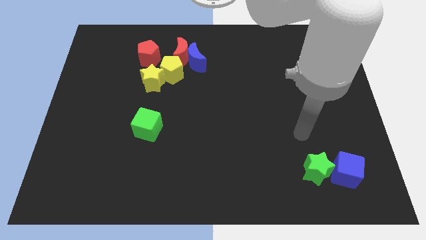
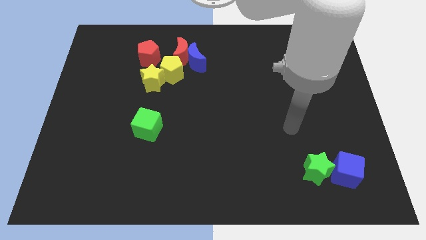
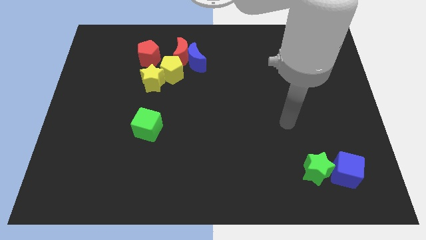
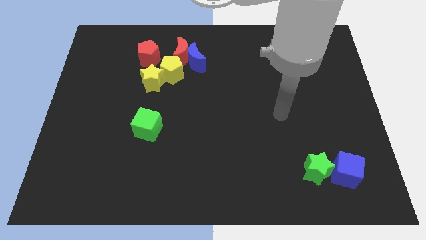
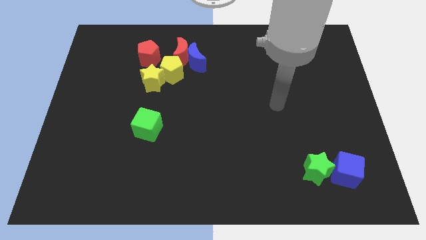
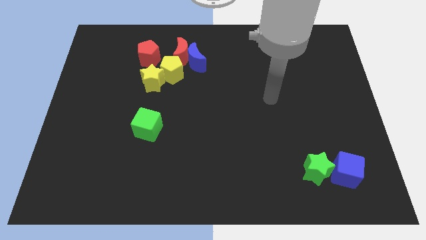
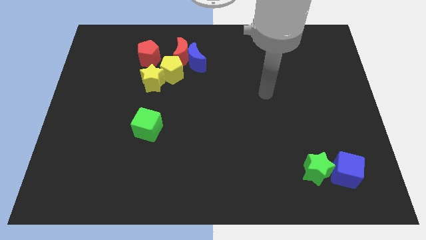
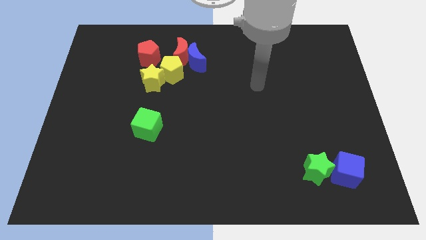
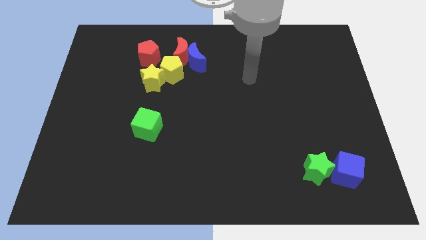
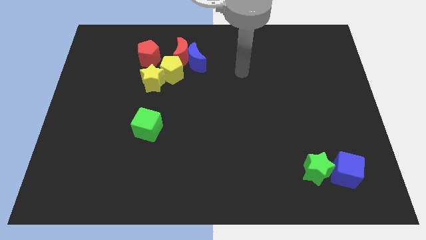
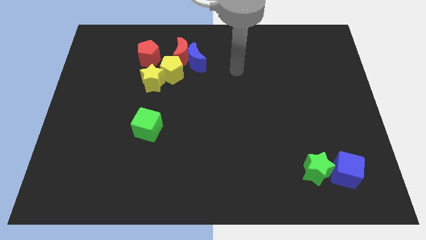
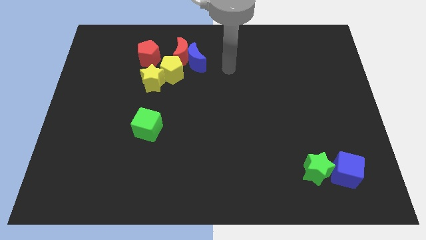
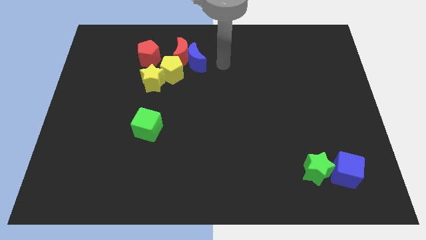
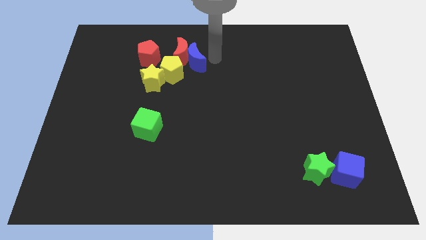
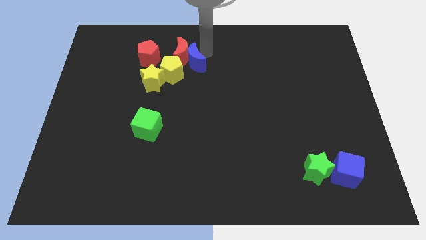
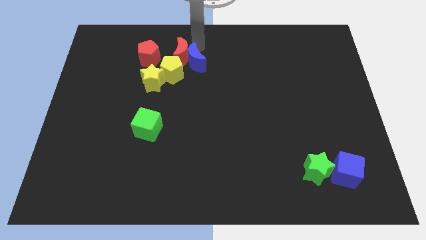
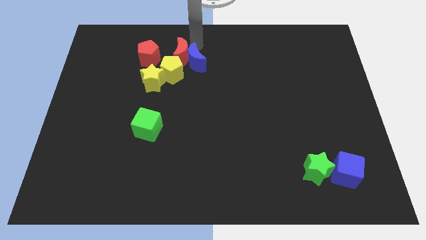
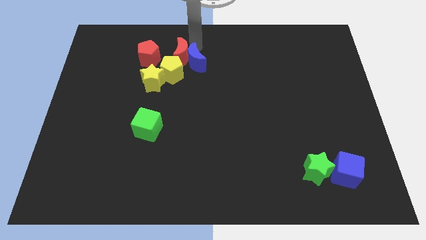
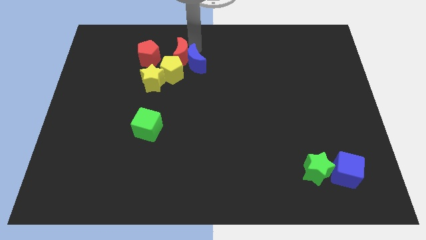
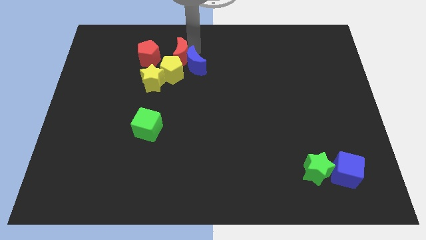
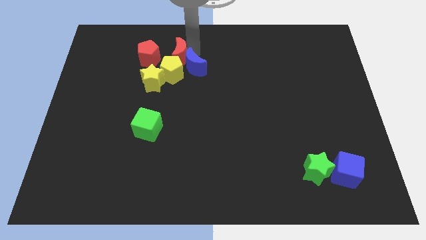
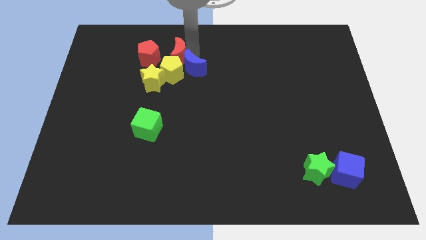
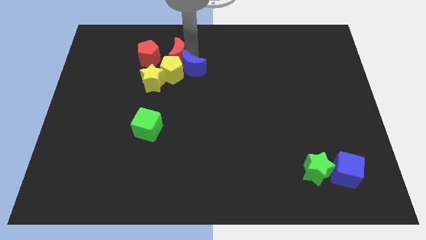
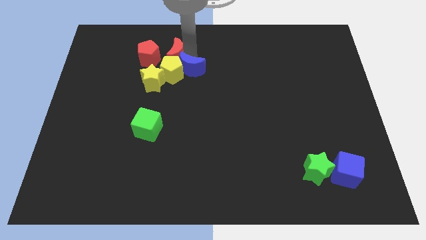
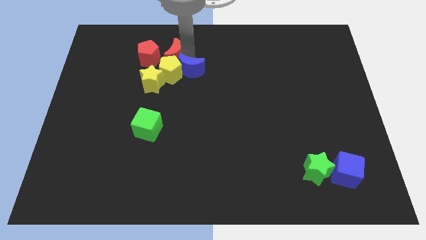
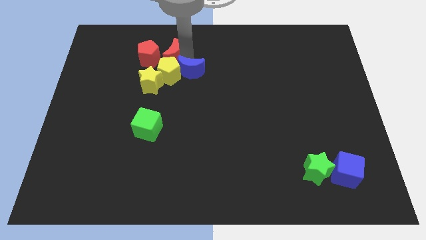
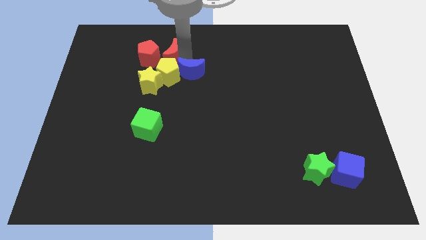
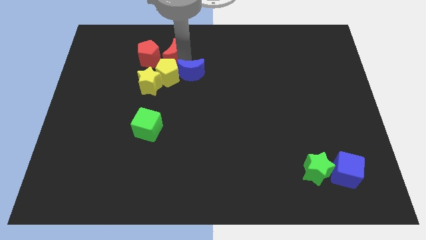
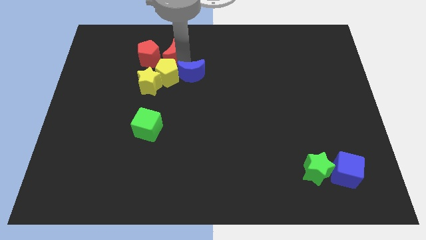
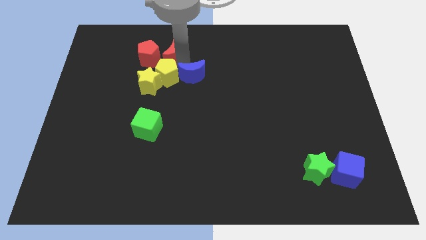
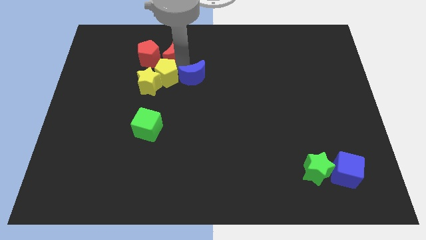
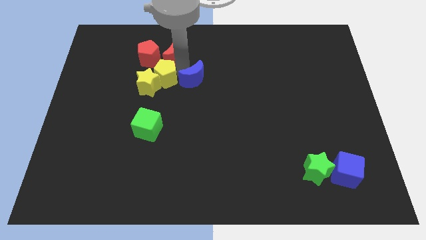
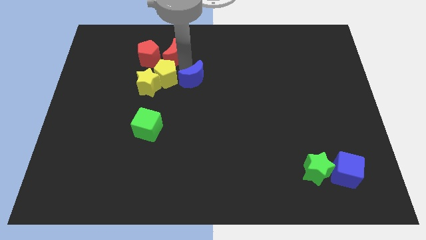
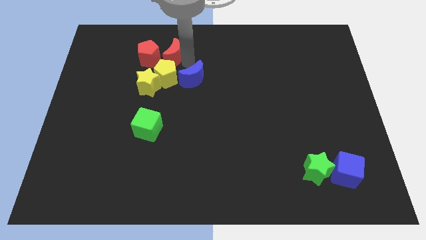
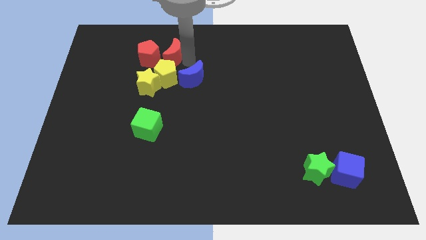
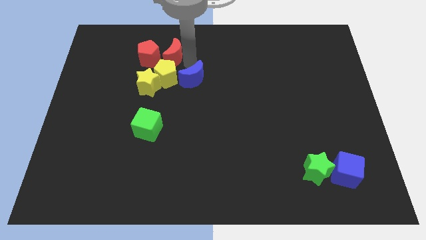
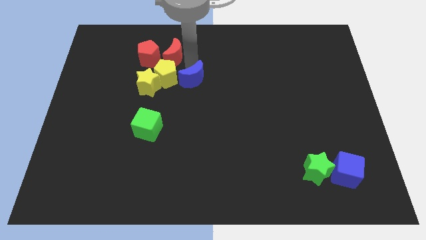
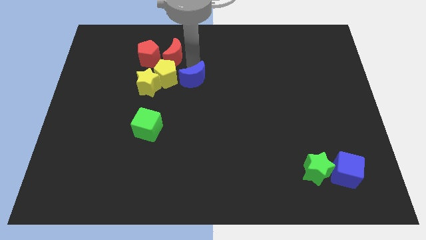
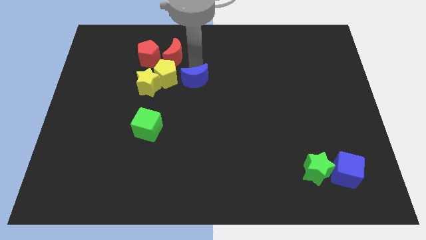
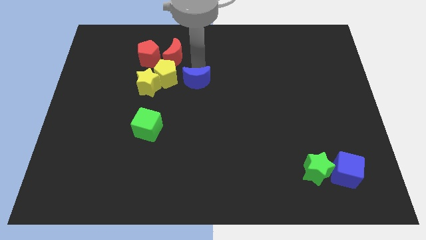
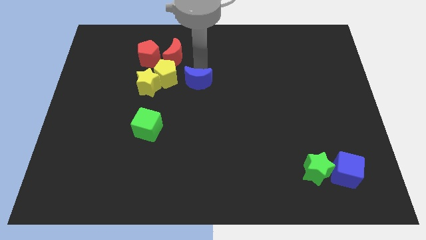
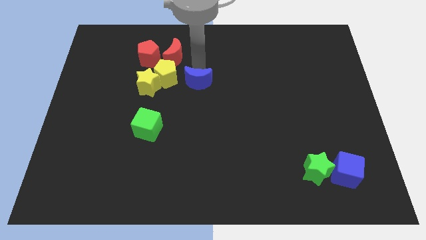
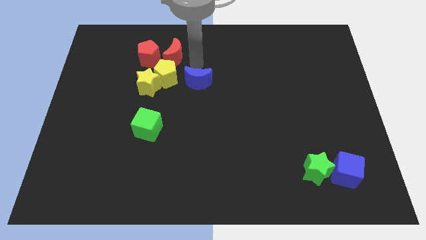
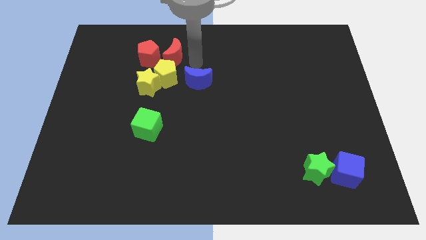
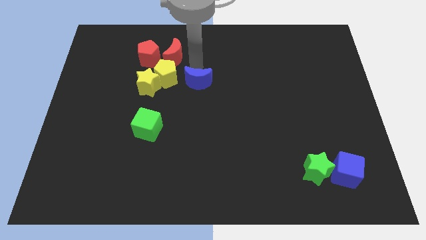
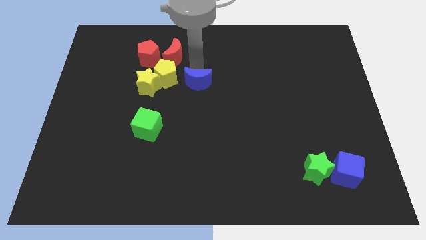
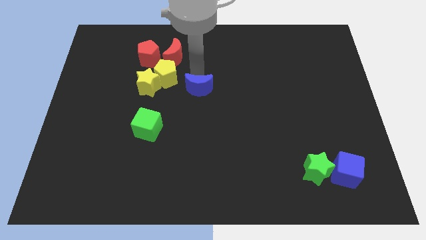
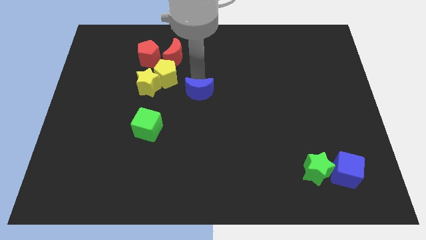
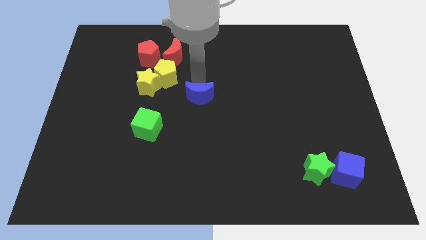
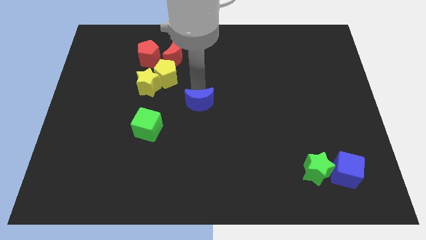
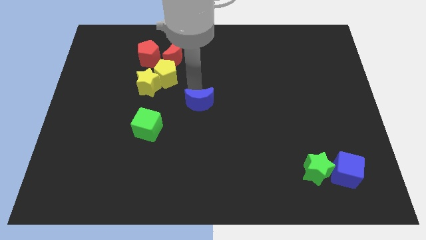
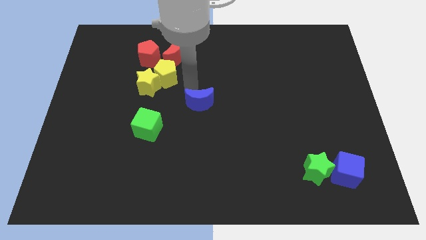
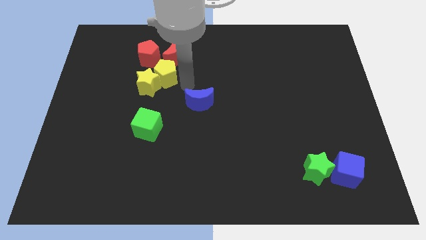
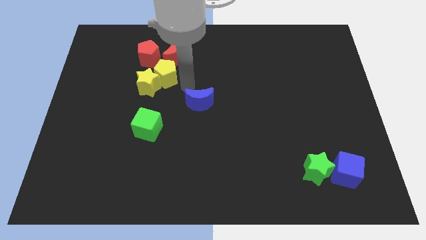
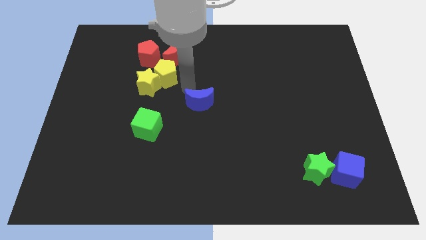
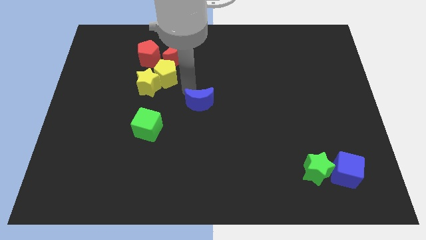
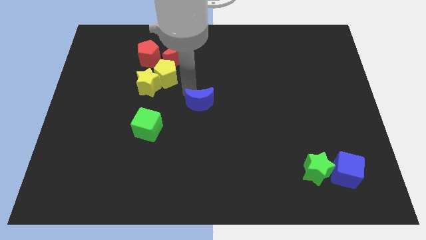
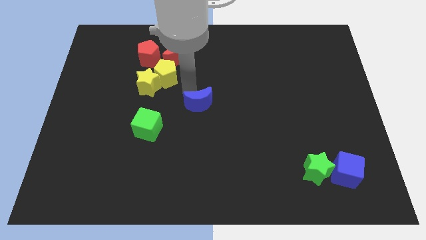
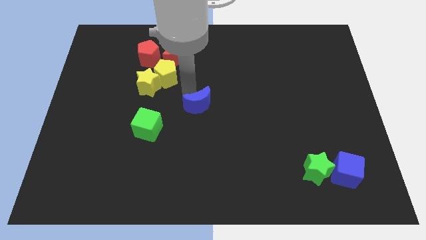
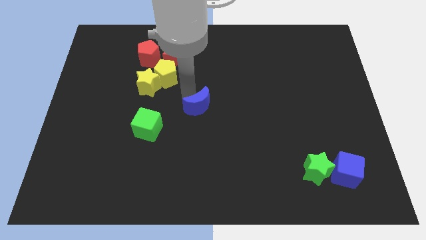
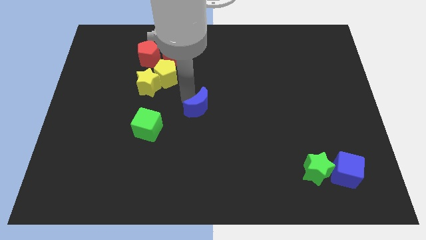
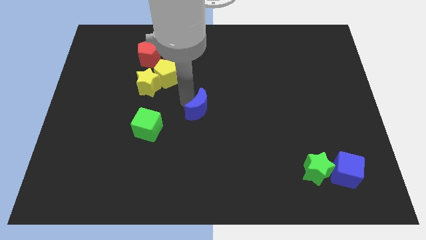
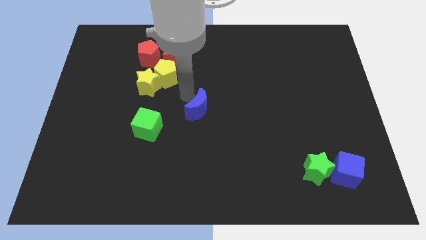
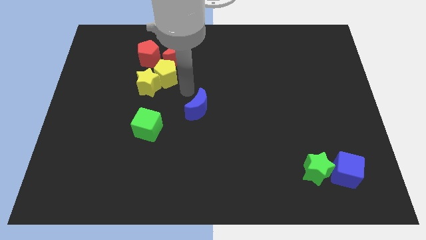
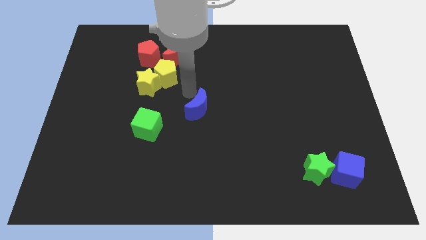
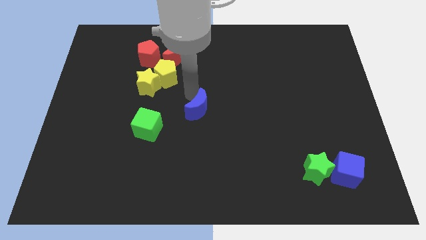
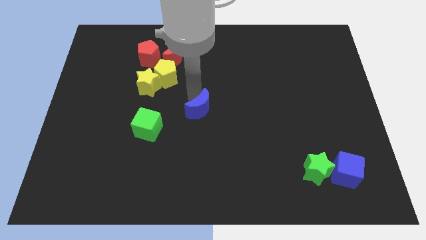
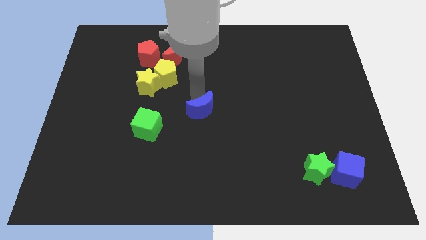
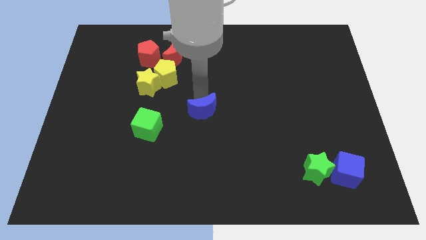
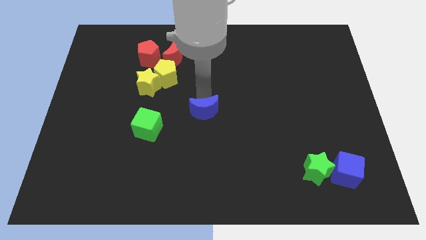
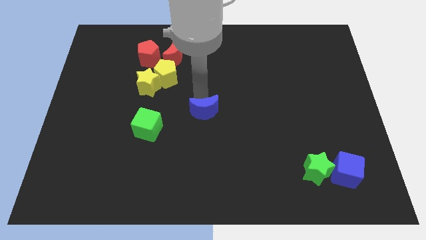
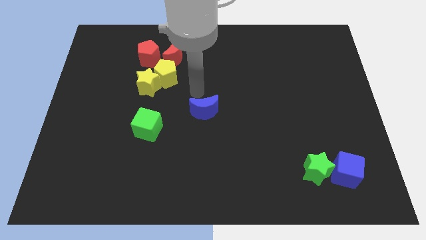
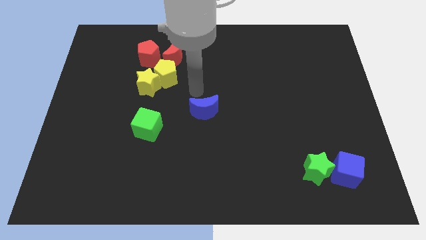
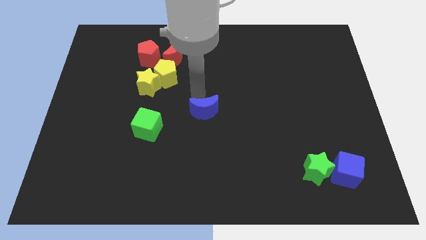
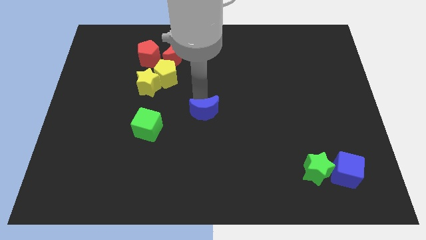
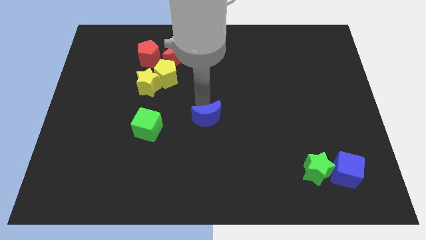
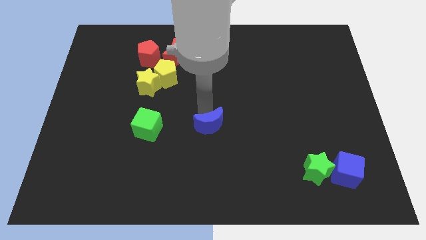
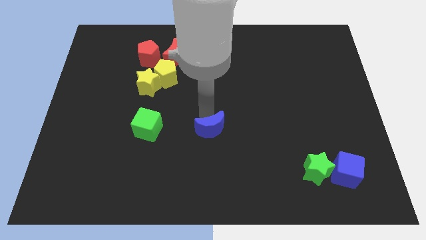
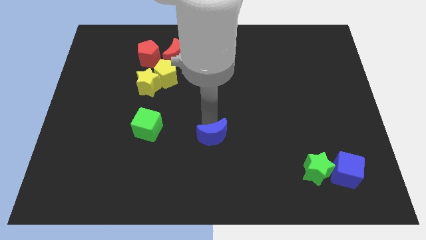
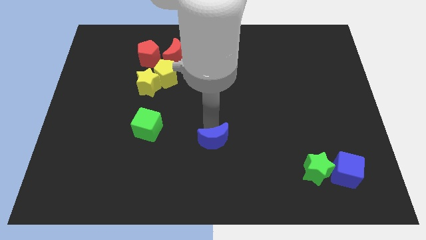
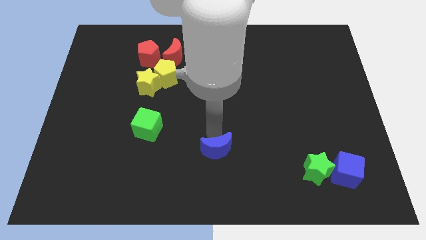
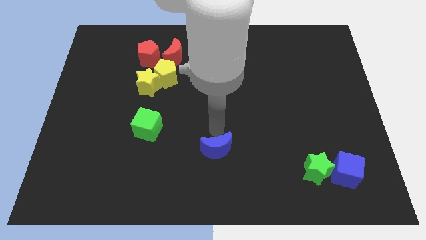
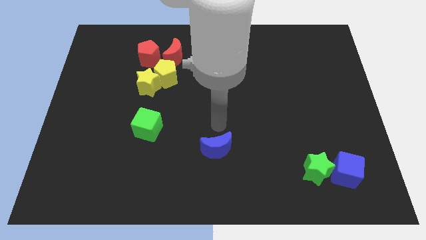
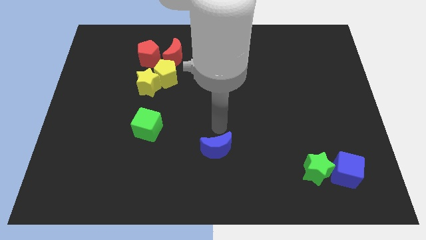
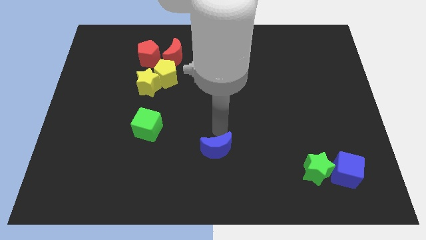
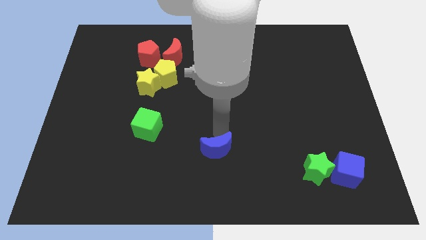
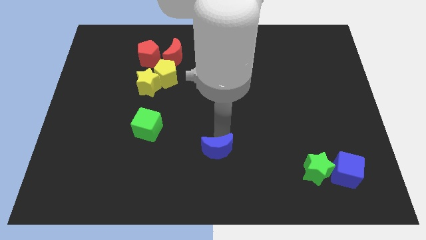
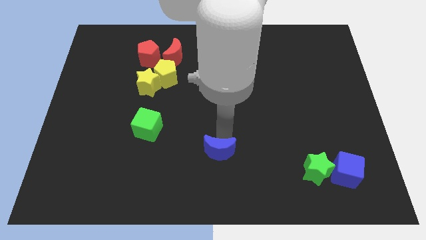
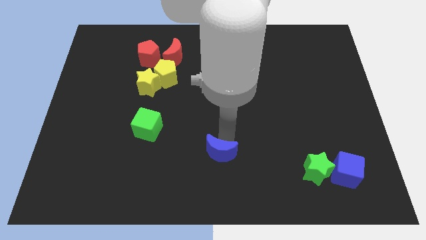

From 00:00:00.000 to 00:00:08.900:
move the blue moon to the bottom
